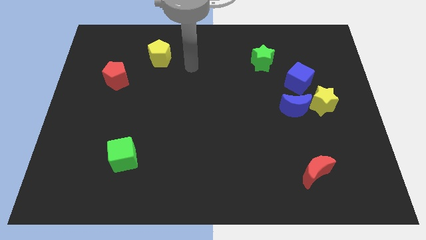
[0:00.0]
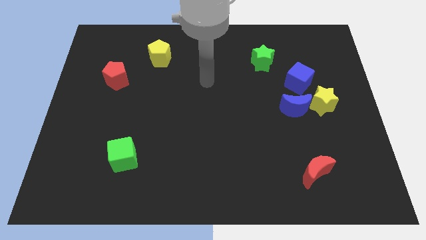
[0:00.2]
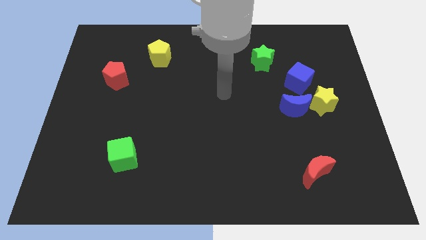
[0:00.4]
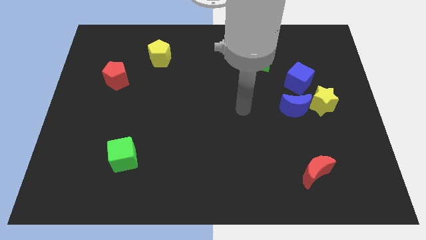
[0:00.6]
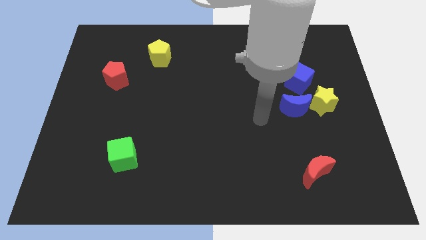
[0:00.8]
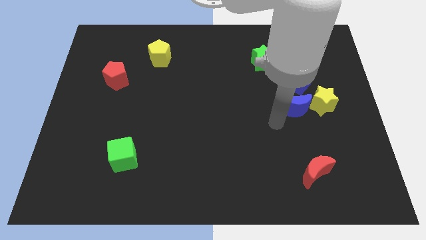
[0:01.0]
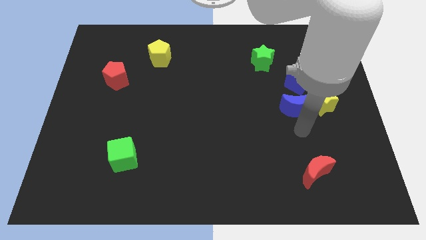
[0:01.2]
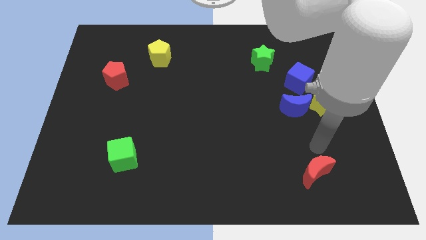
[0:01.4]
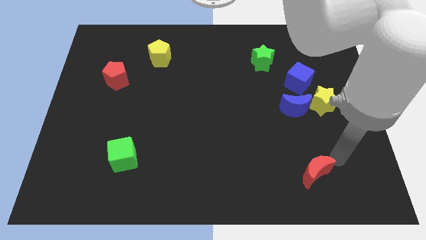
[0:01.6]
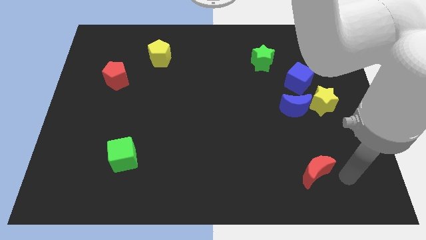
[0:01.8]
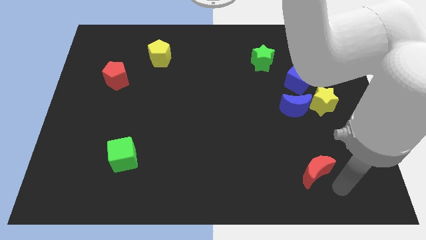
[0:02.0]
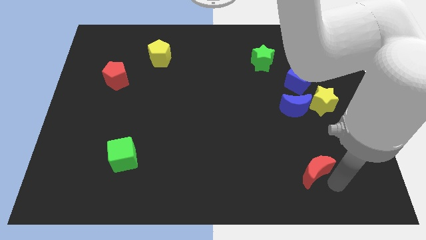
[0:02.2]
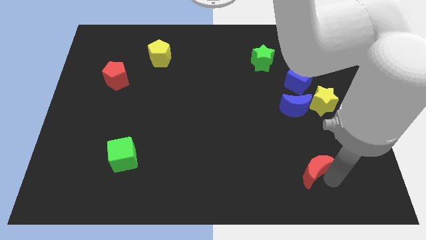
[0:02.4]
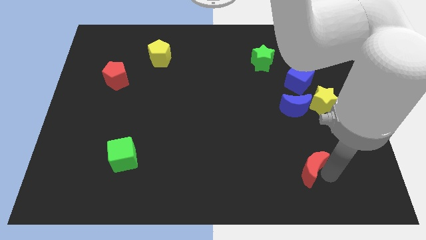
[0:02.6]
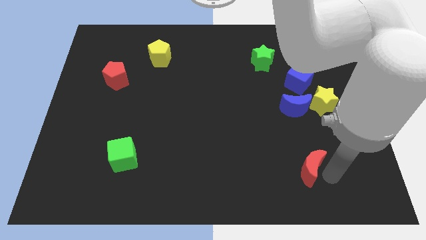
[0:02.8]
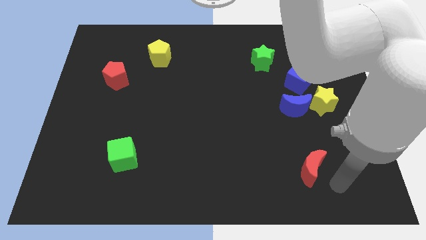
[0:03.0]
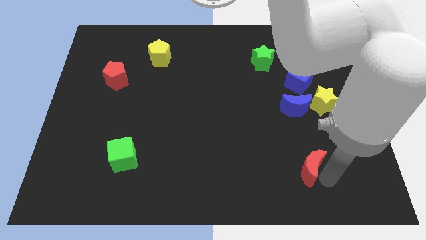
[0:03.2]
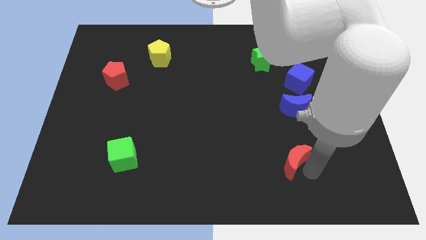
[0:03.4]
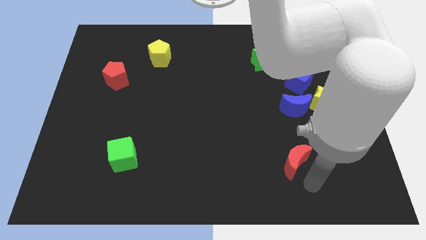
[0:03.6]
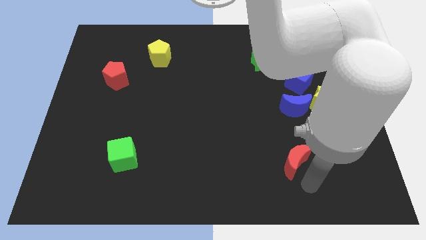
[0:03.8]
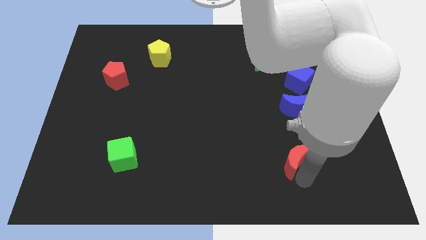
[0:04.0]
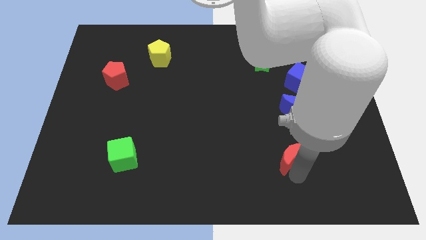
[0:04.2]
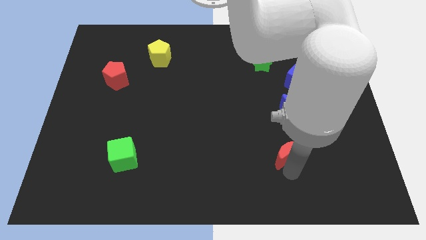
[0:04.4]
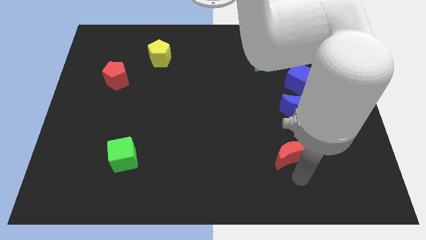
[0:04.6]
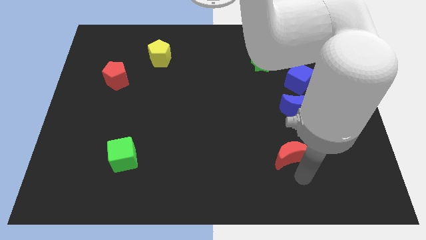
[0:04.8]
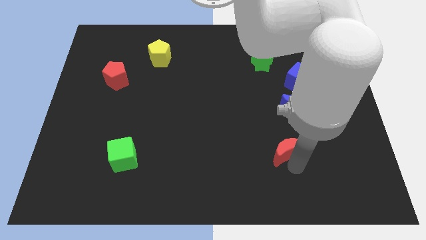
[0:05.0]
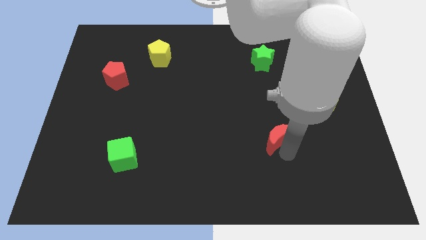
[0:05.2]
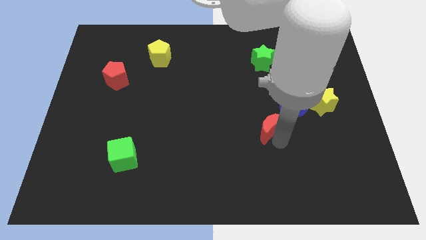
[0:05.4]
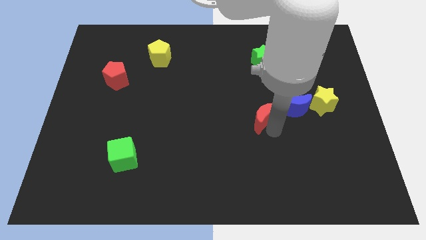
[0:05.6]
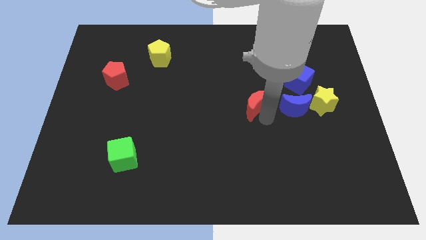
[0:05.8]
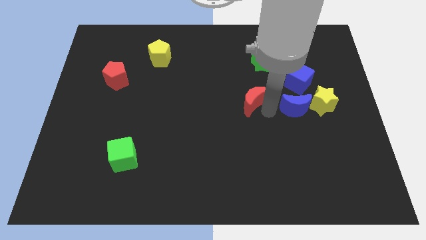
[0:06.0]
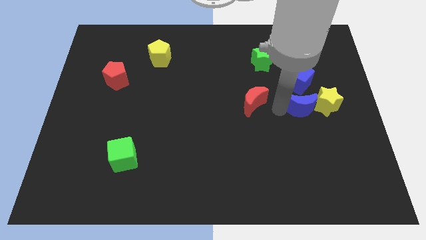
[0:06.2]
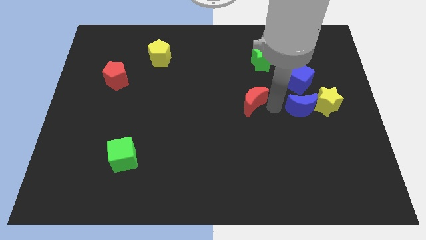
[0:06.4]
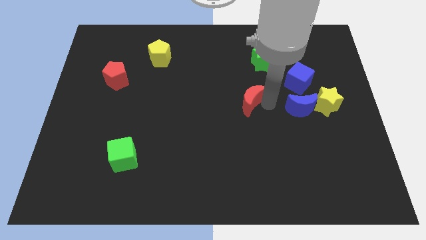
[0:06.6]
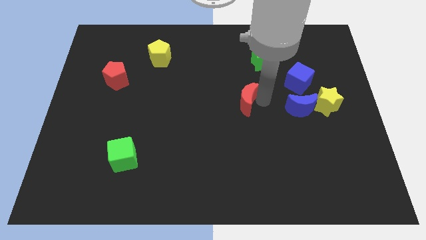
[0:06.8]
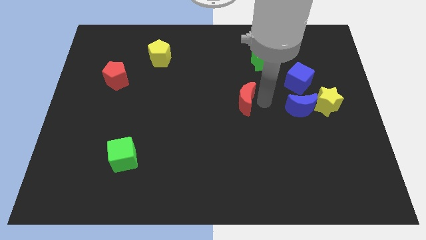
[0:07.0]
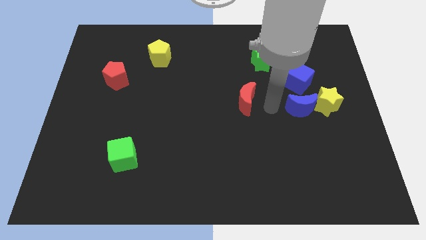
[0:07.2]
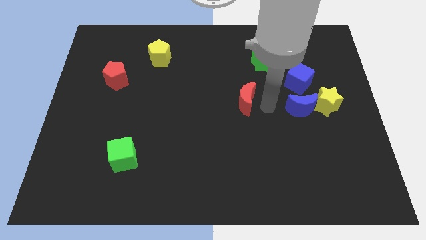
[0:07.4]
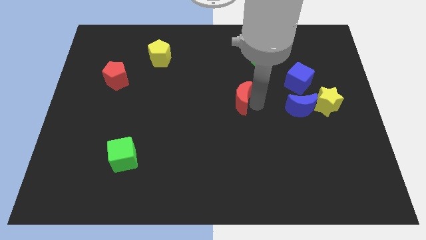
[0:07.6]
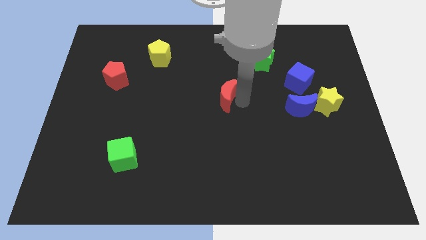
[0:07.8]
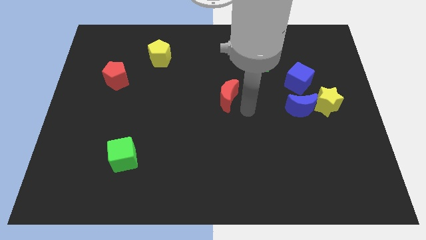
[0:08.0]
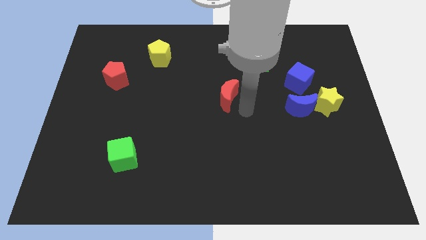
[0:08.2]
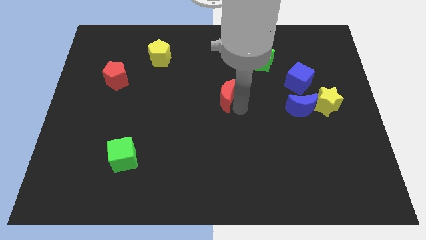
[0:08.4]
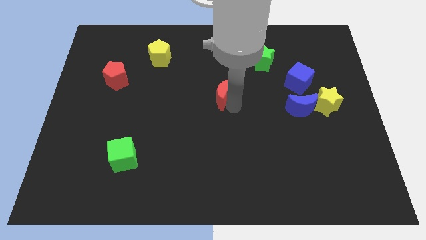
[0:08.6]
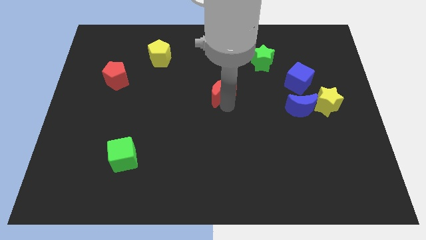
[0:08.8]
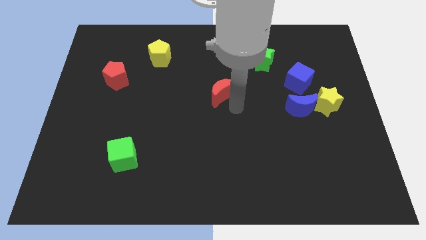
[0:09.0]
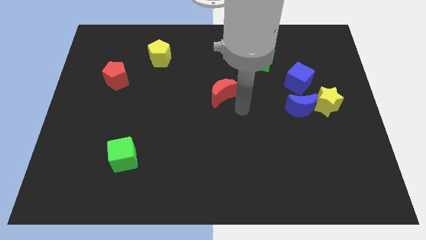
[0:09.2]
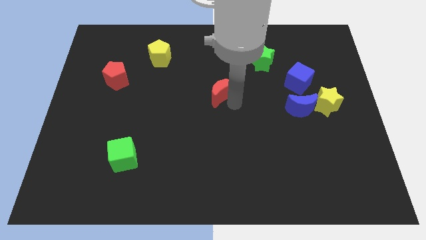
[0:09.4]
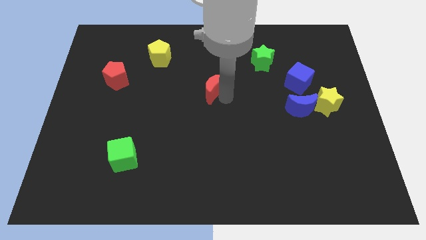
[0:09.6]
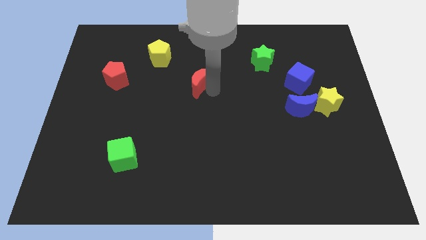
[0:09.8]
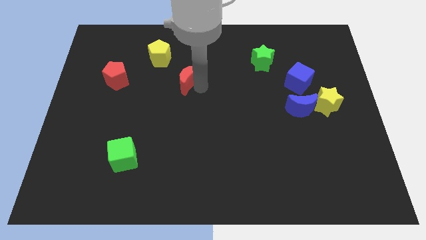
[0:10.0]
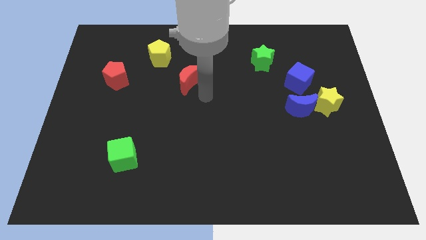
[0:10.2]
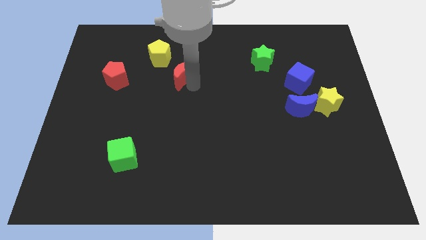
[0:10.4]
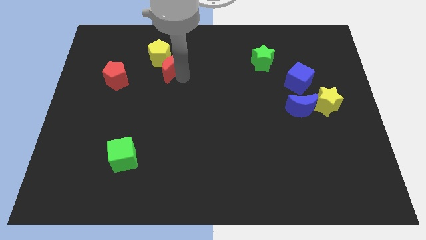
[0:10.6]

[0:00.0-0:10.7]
put the red moon next to the yellow pentagon

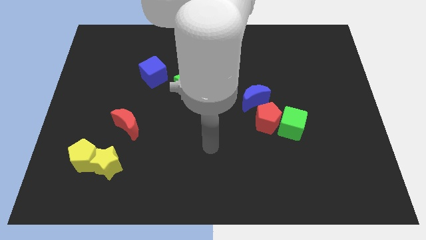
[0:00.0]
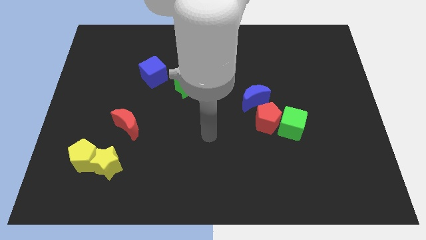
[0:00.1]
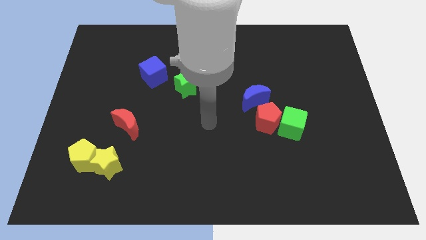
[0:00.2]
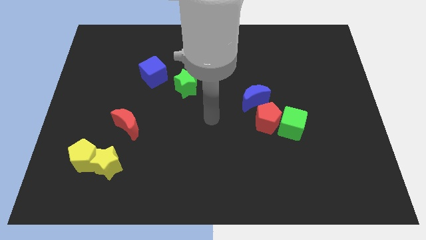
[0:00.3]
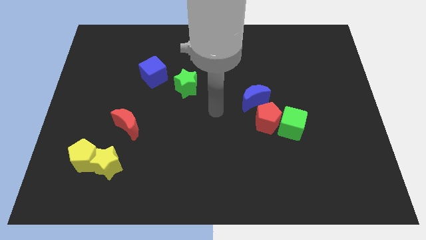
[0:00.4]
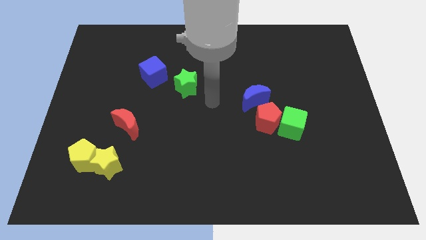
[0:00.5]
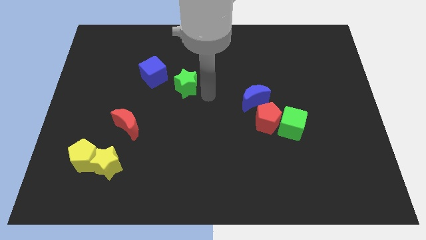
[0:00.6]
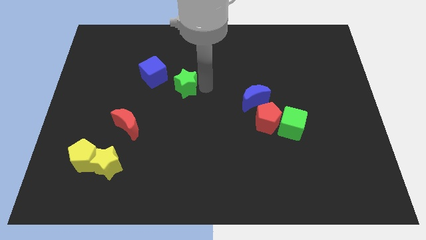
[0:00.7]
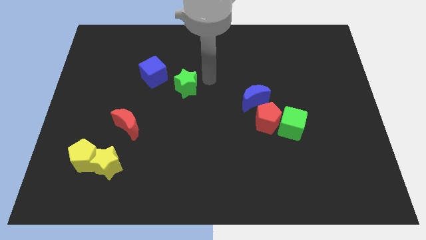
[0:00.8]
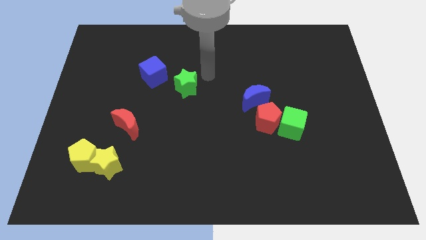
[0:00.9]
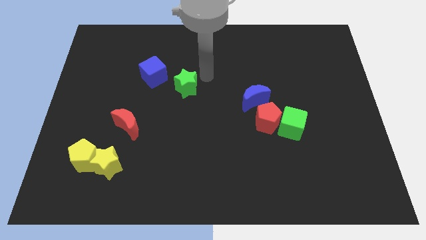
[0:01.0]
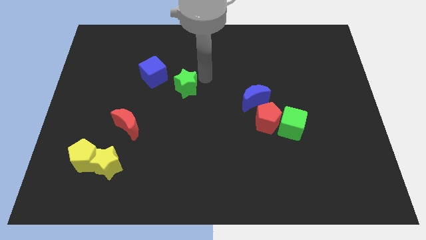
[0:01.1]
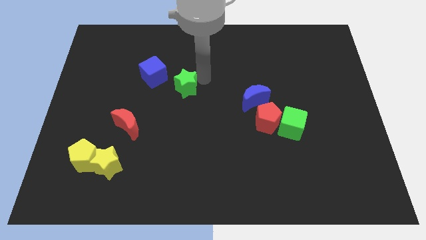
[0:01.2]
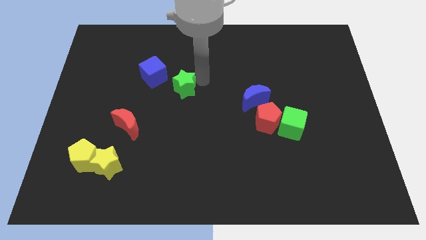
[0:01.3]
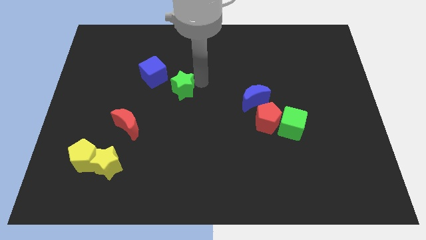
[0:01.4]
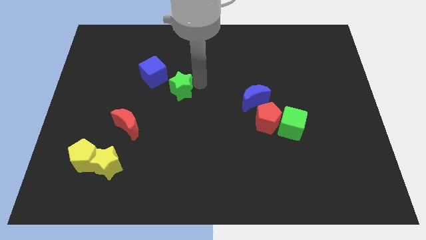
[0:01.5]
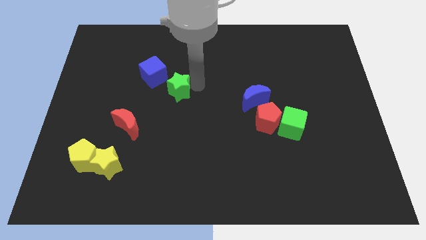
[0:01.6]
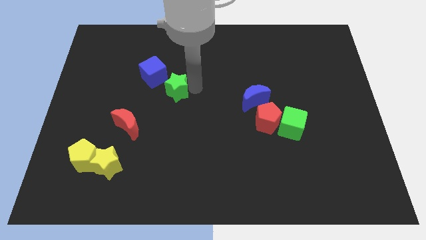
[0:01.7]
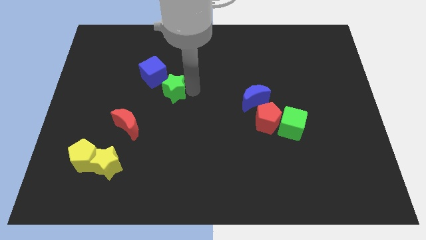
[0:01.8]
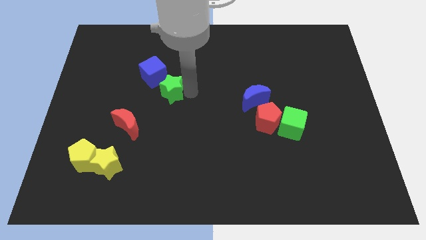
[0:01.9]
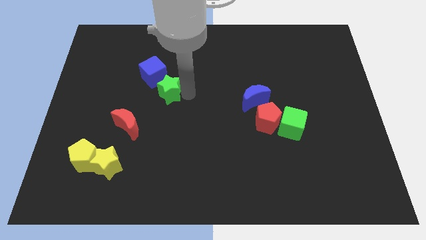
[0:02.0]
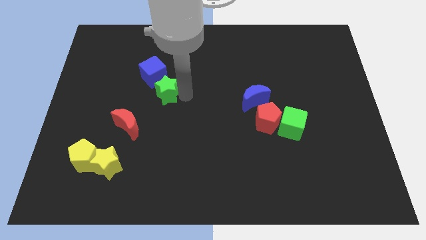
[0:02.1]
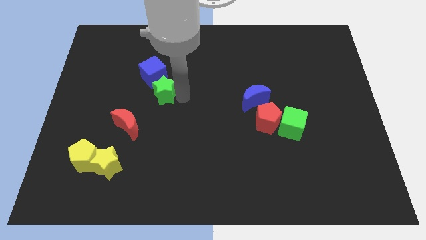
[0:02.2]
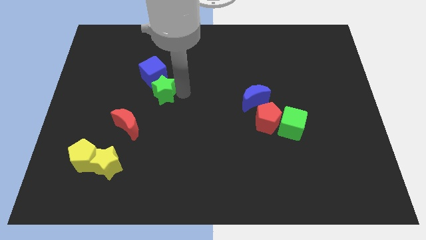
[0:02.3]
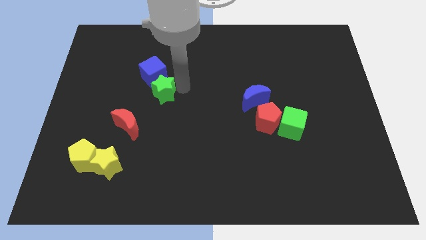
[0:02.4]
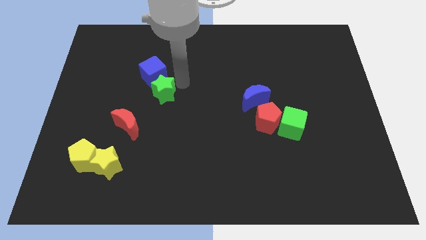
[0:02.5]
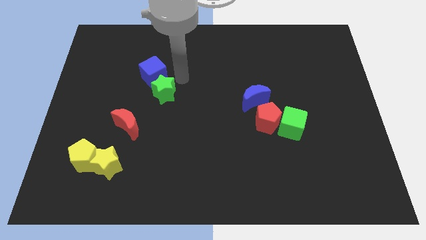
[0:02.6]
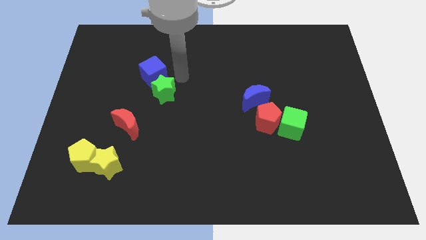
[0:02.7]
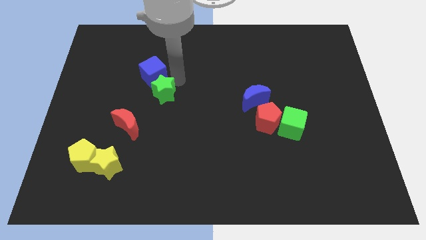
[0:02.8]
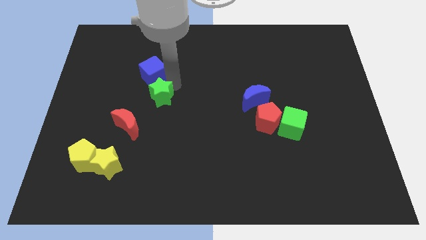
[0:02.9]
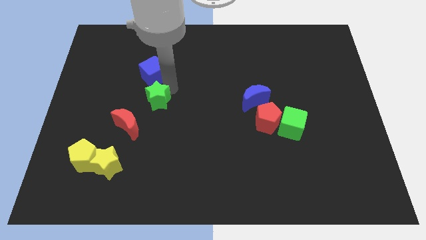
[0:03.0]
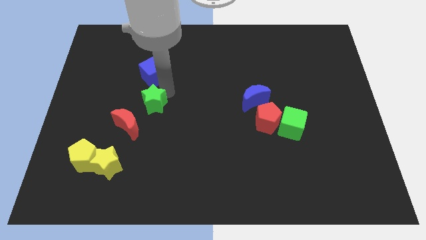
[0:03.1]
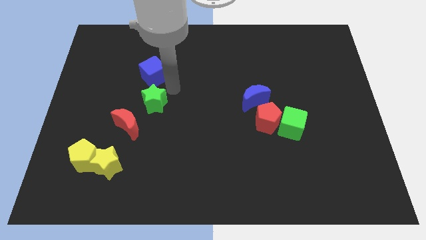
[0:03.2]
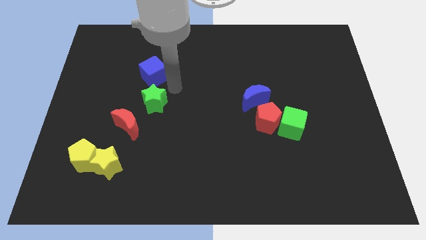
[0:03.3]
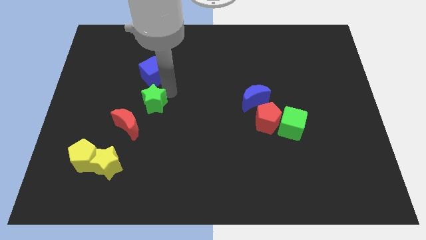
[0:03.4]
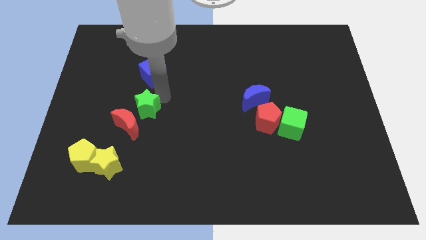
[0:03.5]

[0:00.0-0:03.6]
move the green star towards the red moon
